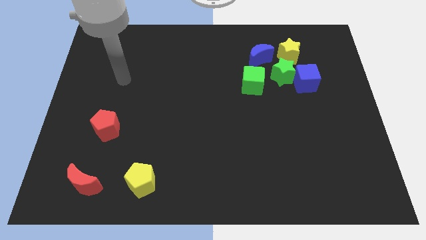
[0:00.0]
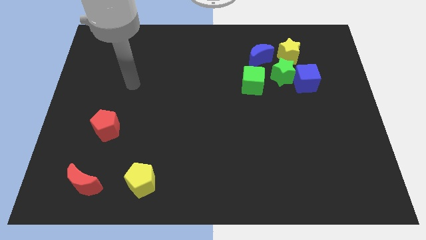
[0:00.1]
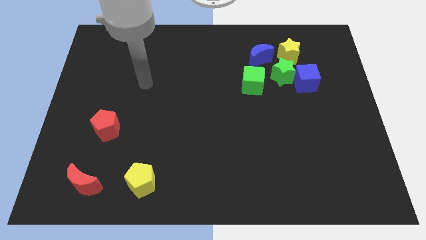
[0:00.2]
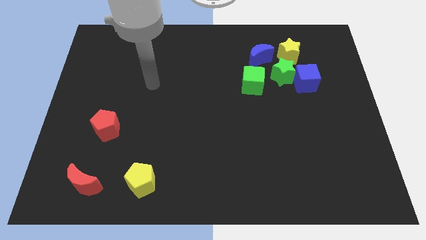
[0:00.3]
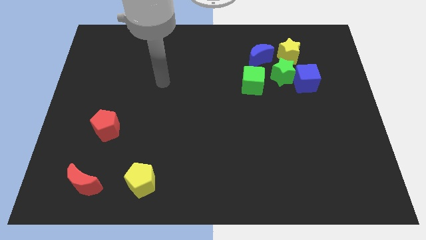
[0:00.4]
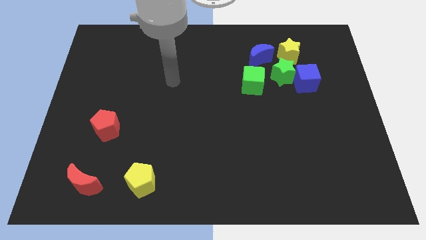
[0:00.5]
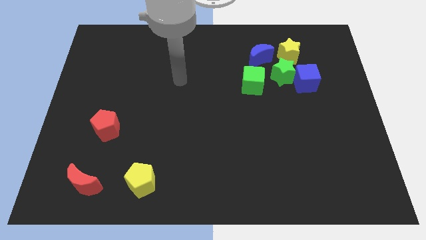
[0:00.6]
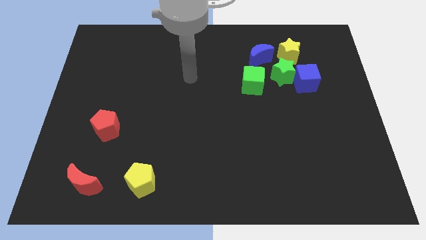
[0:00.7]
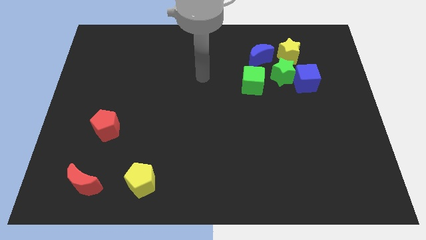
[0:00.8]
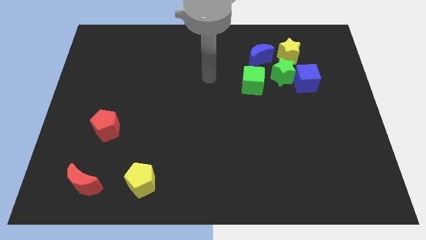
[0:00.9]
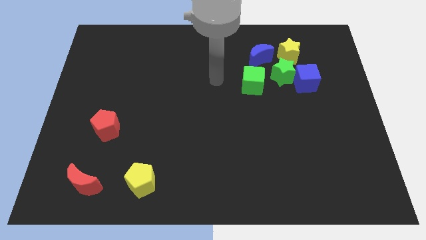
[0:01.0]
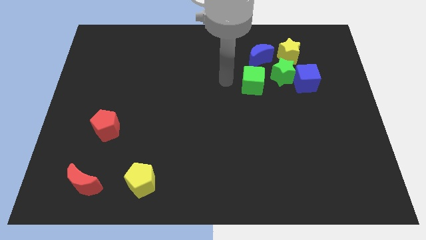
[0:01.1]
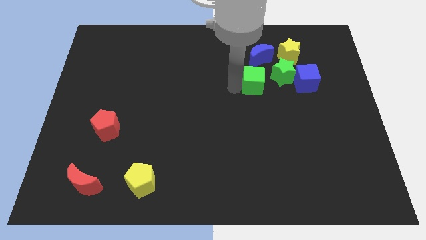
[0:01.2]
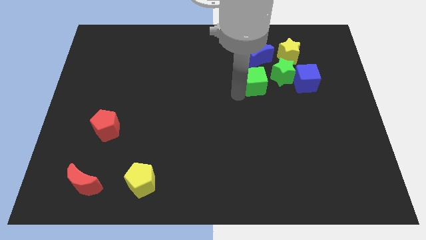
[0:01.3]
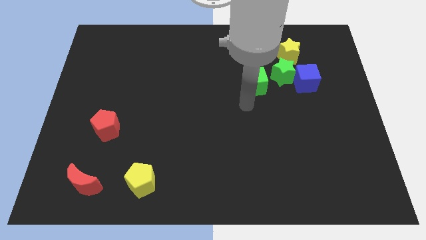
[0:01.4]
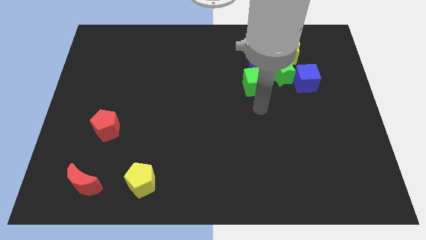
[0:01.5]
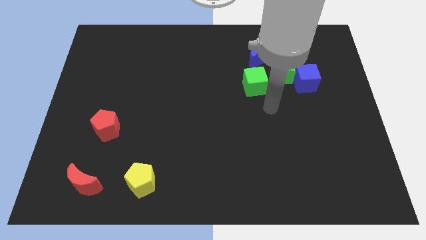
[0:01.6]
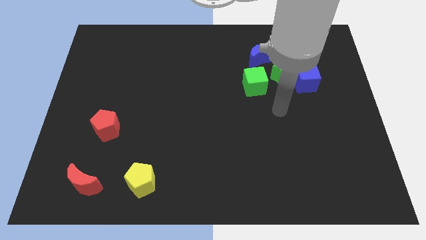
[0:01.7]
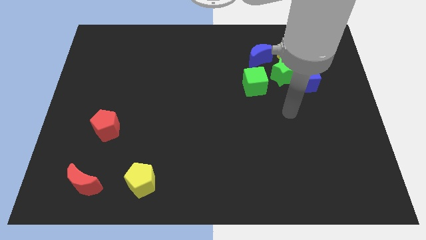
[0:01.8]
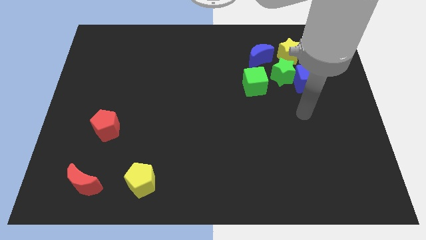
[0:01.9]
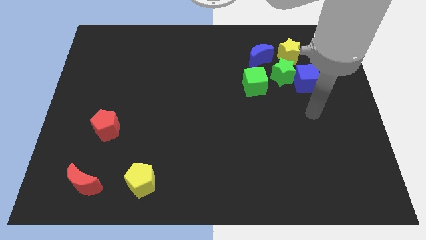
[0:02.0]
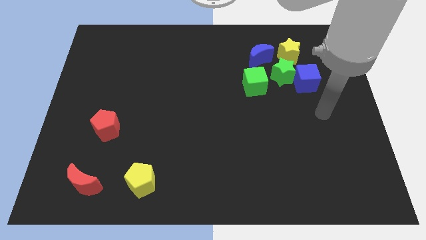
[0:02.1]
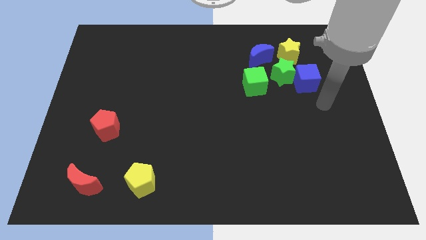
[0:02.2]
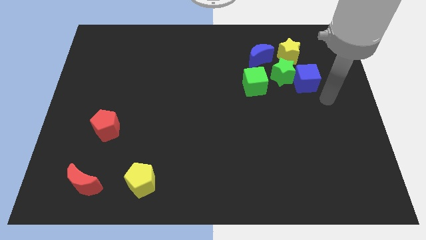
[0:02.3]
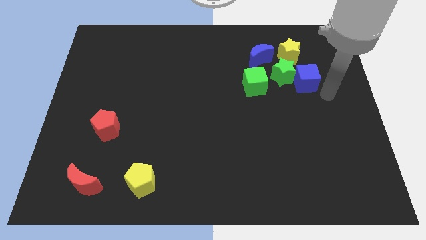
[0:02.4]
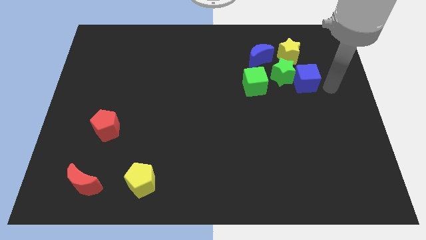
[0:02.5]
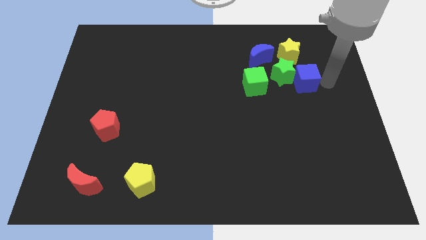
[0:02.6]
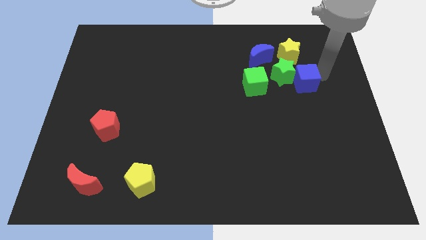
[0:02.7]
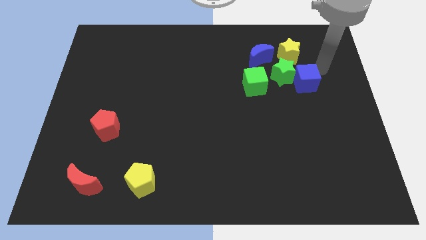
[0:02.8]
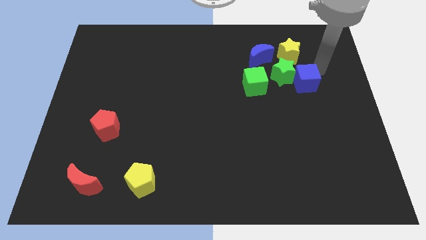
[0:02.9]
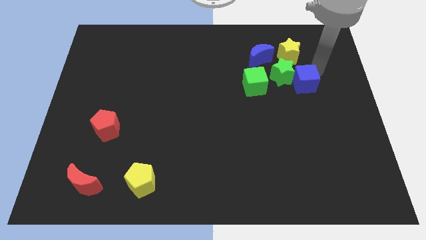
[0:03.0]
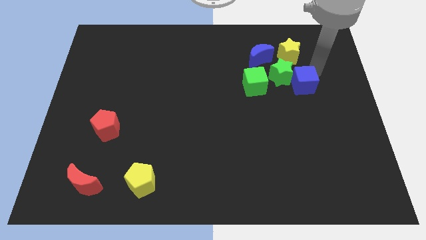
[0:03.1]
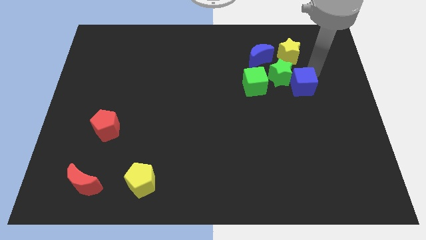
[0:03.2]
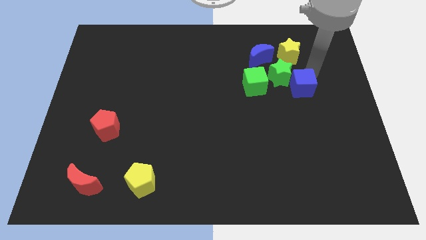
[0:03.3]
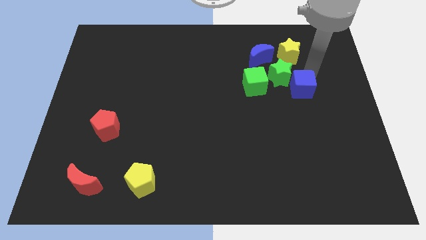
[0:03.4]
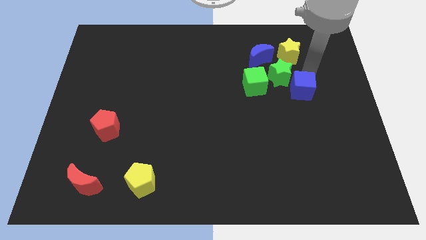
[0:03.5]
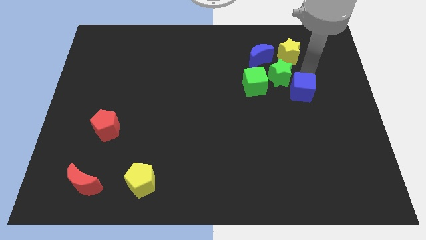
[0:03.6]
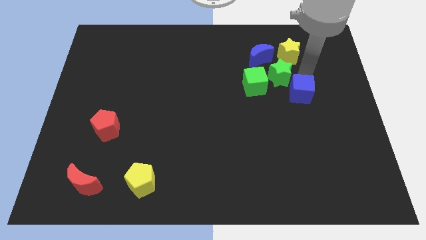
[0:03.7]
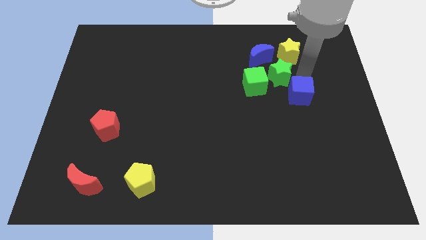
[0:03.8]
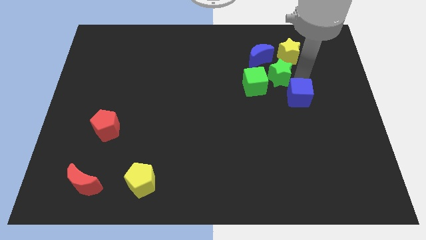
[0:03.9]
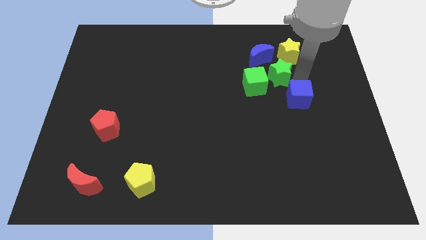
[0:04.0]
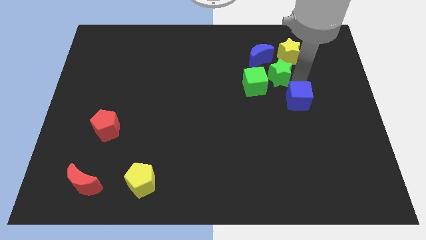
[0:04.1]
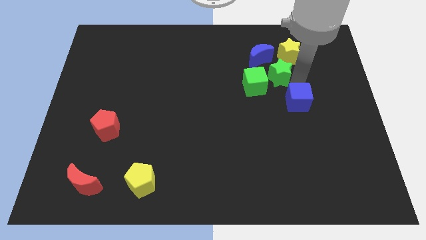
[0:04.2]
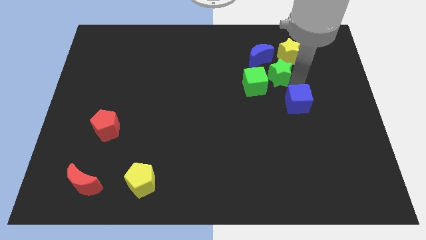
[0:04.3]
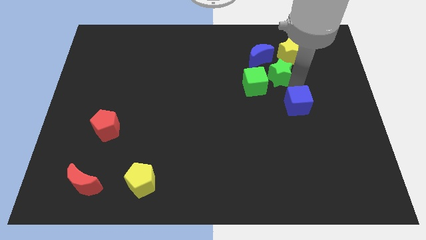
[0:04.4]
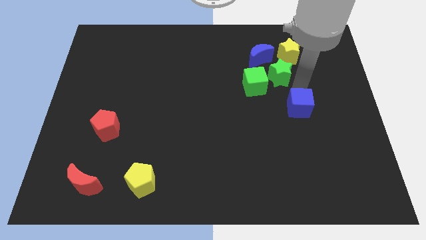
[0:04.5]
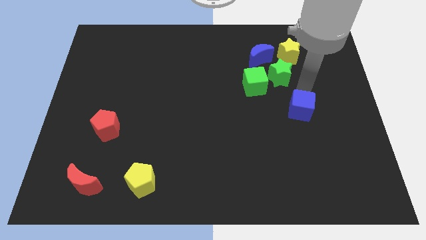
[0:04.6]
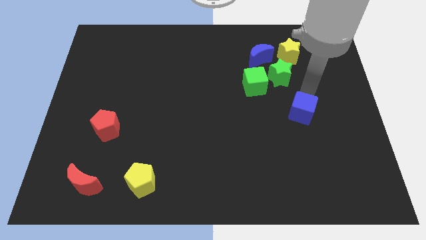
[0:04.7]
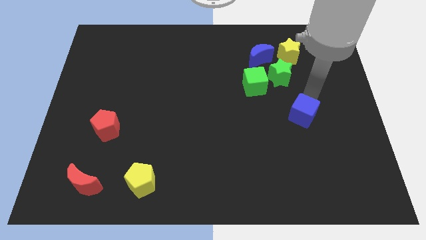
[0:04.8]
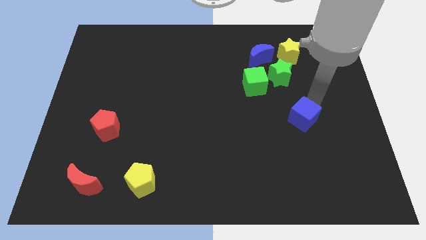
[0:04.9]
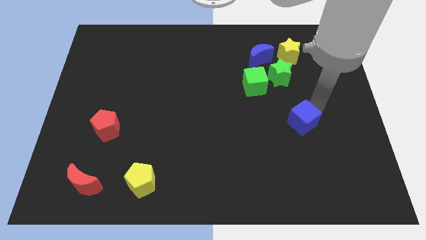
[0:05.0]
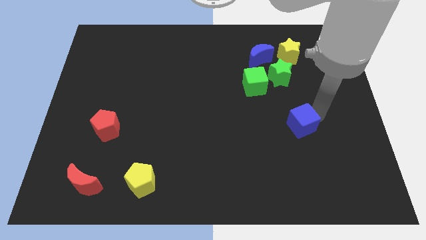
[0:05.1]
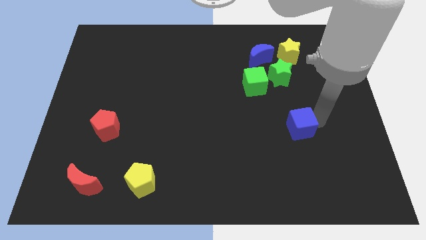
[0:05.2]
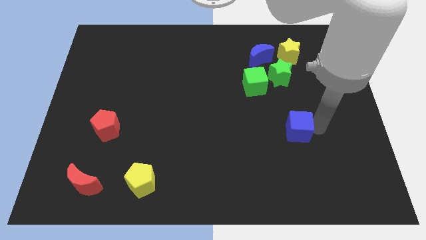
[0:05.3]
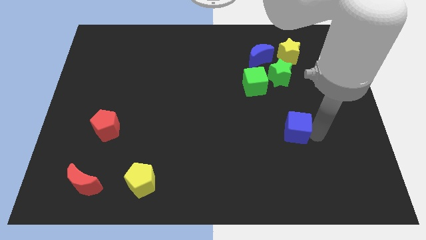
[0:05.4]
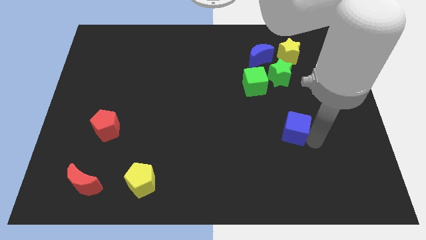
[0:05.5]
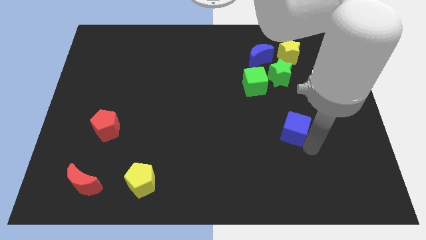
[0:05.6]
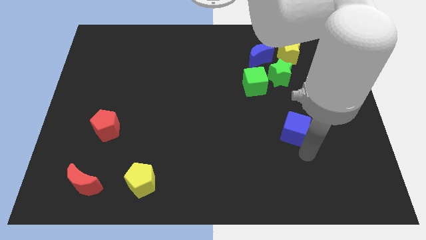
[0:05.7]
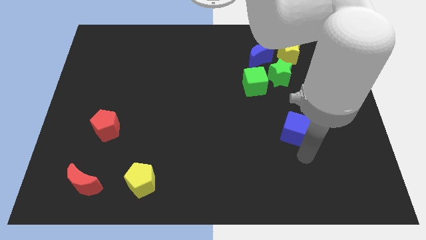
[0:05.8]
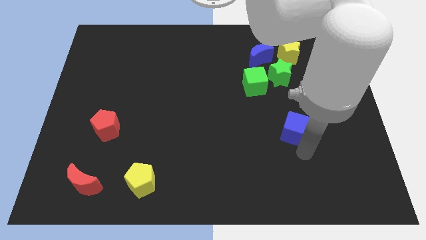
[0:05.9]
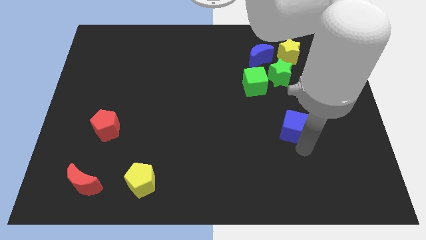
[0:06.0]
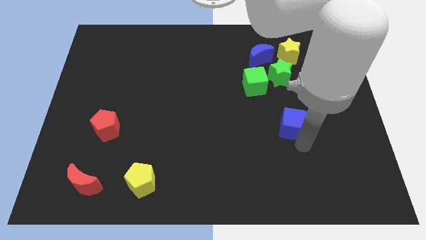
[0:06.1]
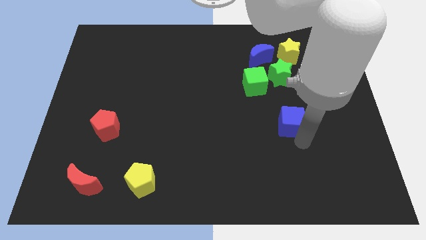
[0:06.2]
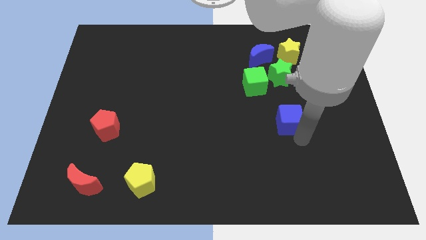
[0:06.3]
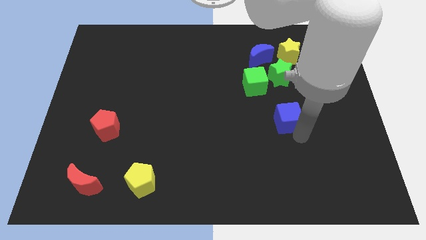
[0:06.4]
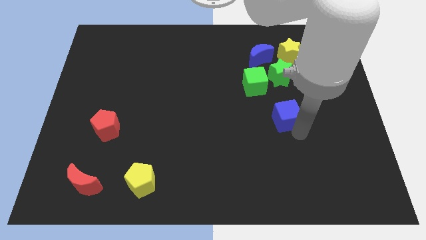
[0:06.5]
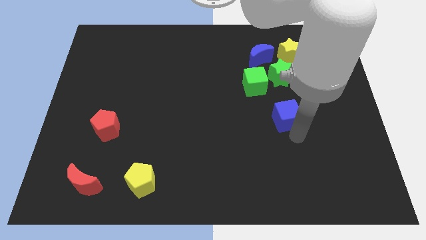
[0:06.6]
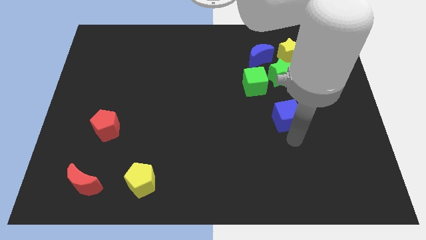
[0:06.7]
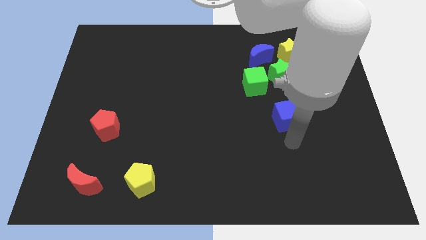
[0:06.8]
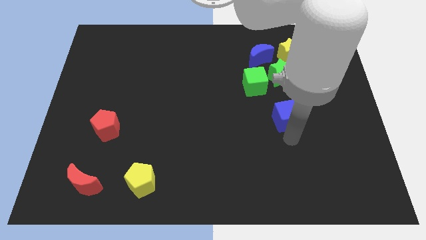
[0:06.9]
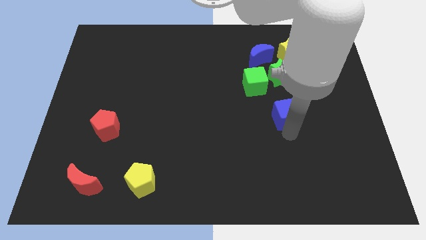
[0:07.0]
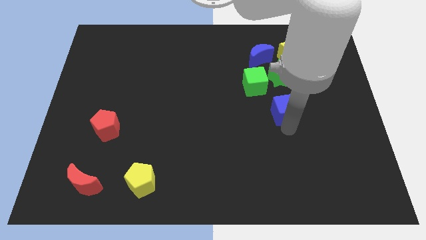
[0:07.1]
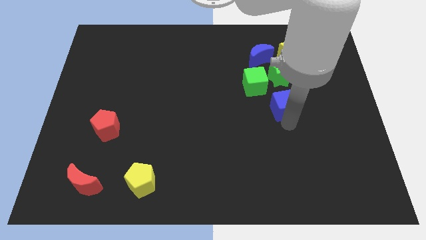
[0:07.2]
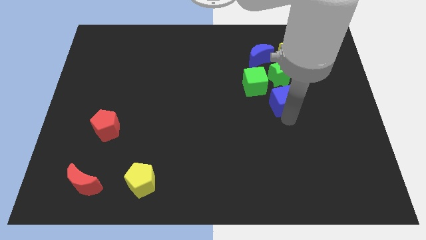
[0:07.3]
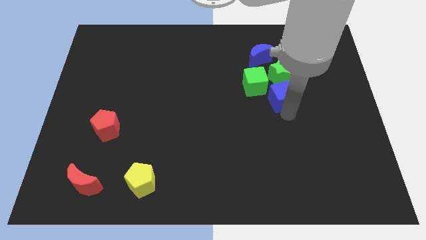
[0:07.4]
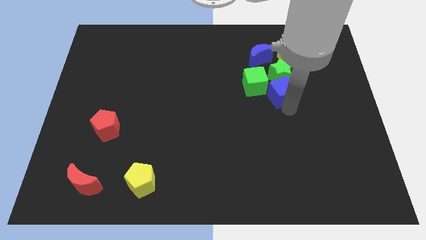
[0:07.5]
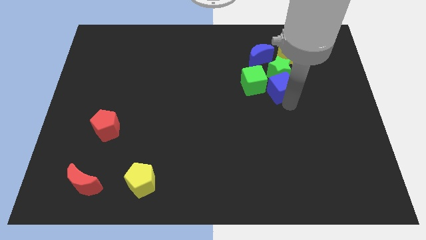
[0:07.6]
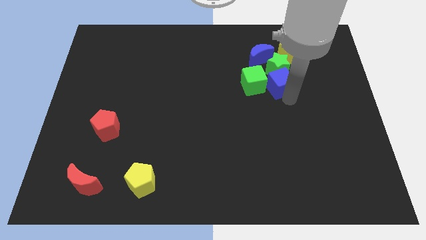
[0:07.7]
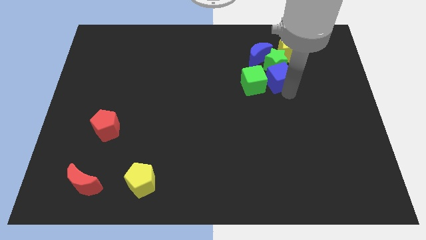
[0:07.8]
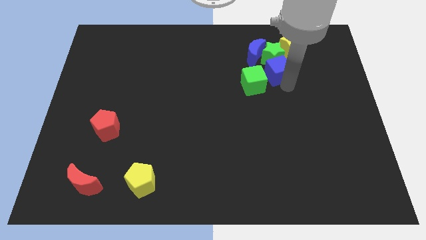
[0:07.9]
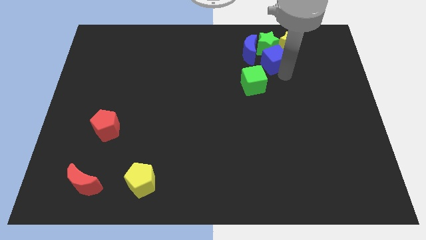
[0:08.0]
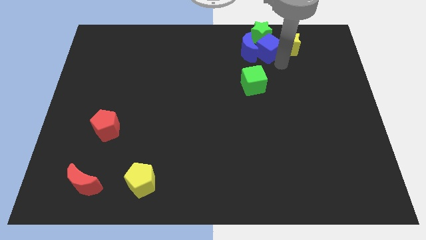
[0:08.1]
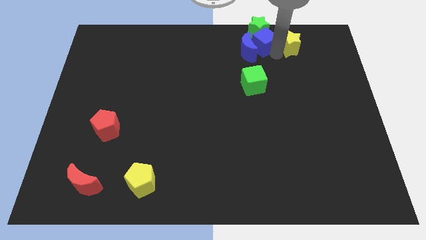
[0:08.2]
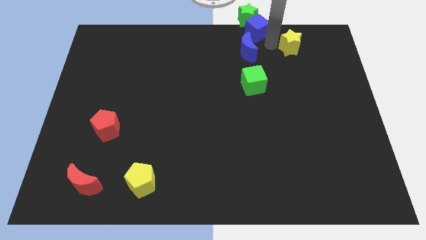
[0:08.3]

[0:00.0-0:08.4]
push the blue cube to the top
